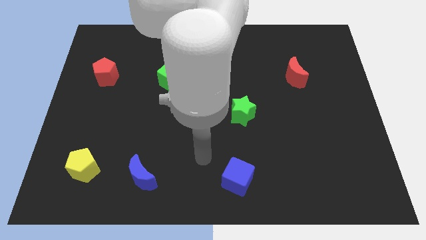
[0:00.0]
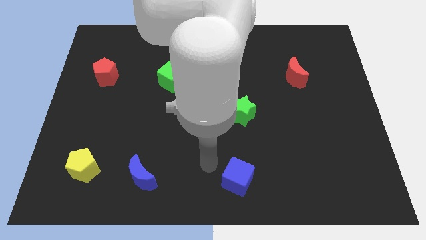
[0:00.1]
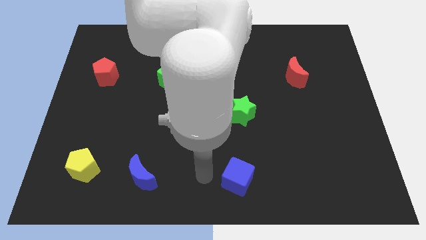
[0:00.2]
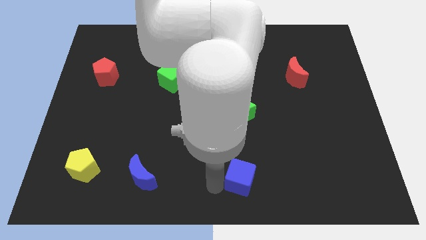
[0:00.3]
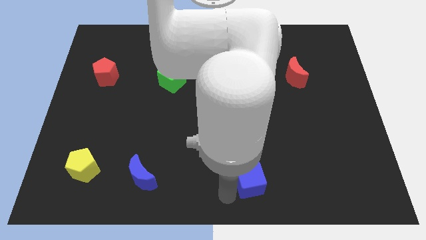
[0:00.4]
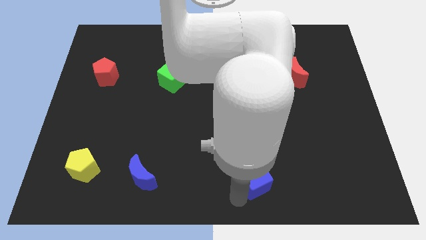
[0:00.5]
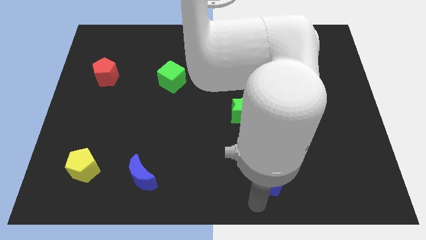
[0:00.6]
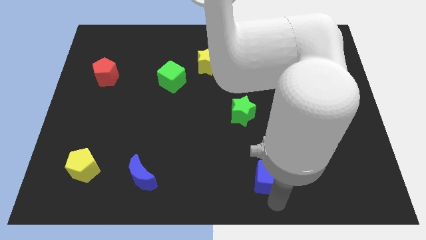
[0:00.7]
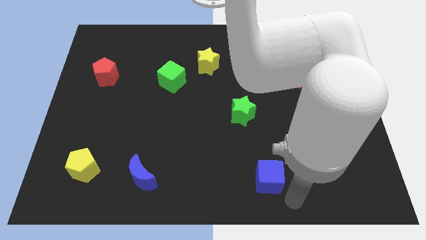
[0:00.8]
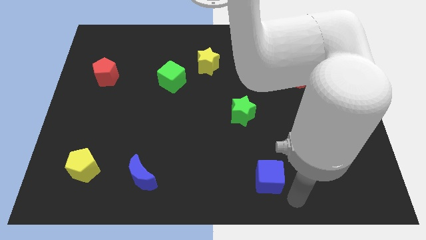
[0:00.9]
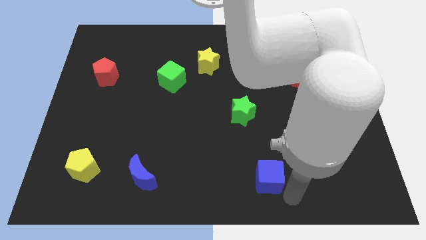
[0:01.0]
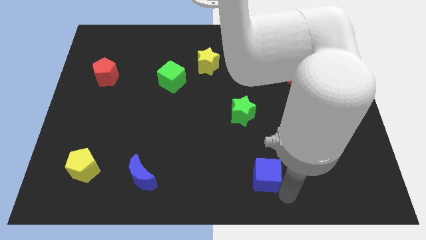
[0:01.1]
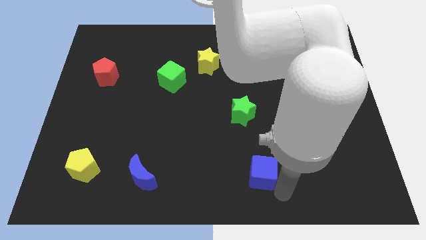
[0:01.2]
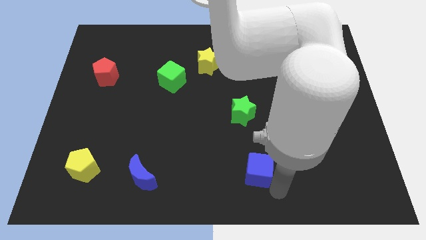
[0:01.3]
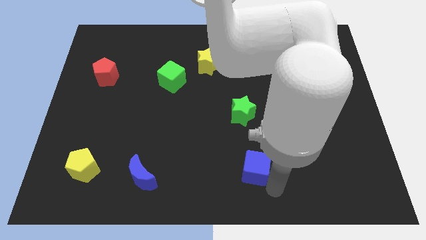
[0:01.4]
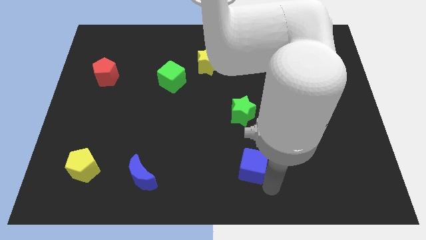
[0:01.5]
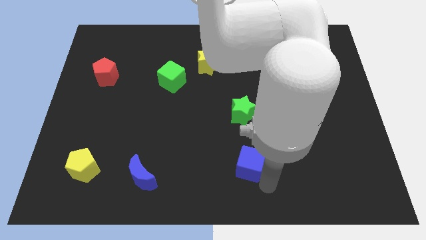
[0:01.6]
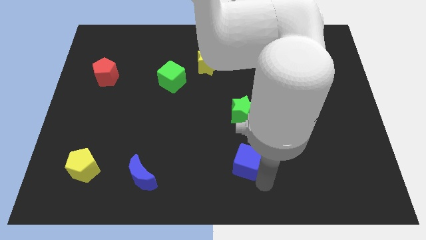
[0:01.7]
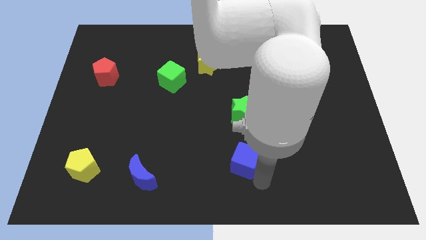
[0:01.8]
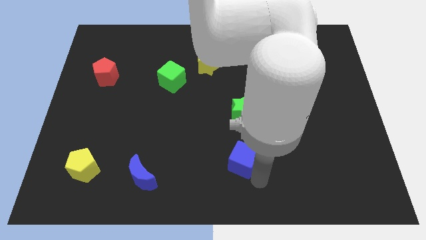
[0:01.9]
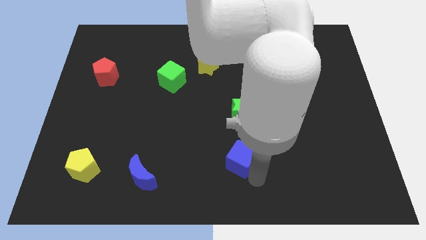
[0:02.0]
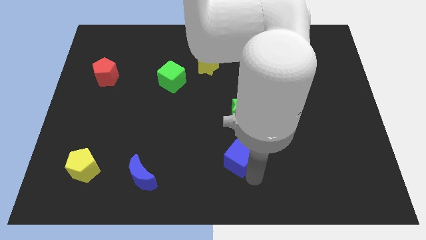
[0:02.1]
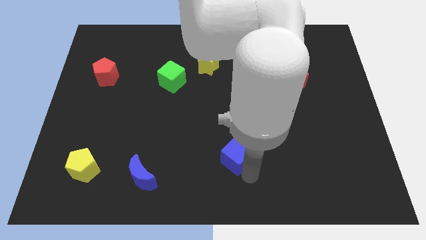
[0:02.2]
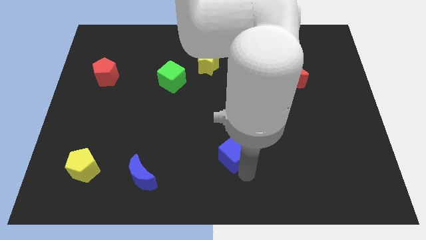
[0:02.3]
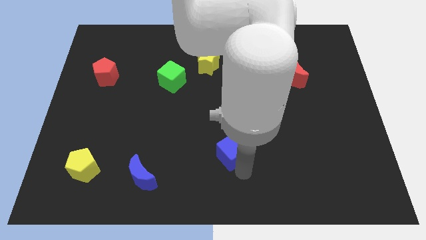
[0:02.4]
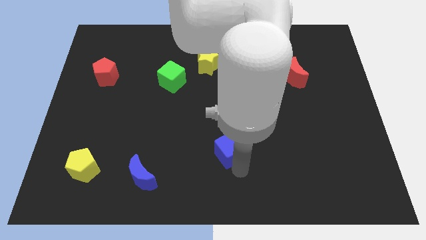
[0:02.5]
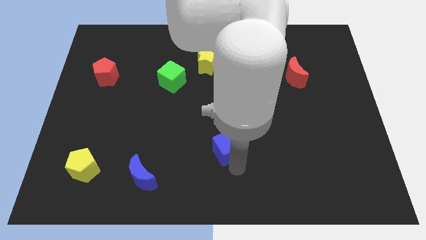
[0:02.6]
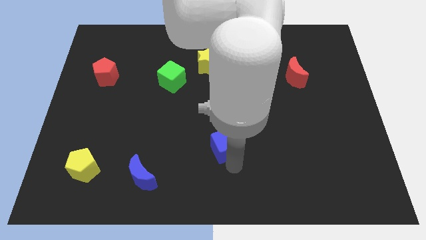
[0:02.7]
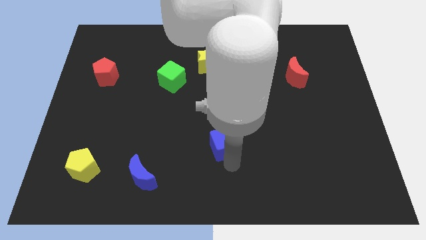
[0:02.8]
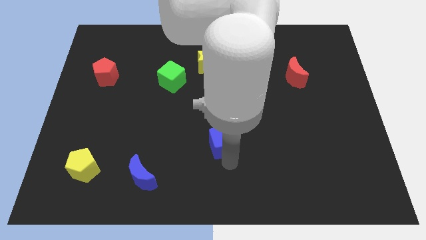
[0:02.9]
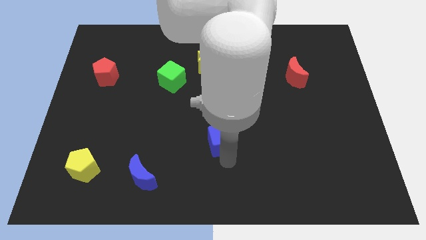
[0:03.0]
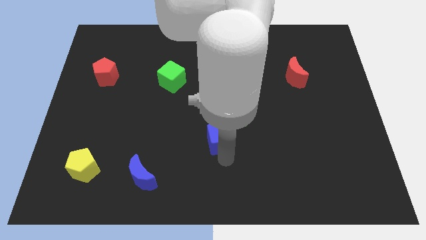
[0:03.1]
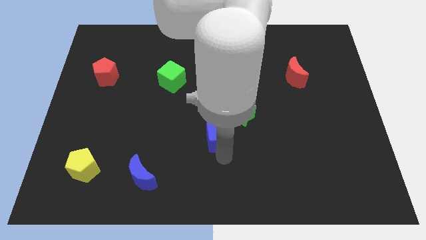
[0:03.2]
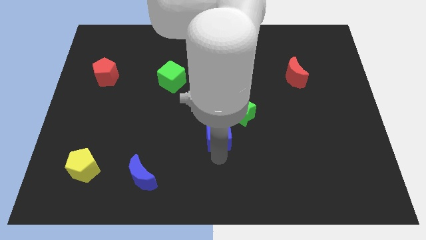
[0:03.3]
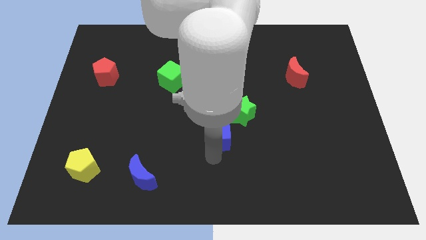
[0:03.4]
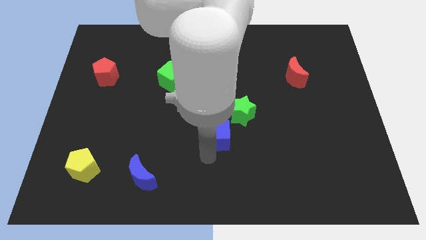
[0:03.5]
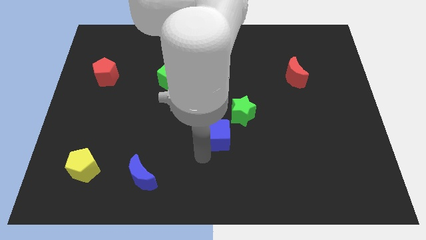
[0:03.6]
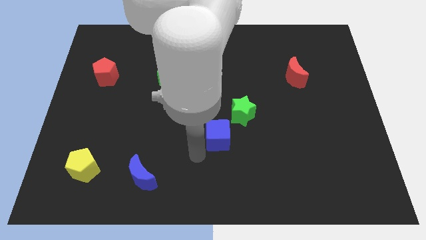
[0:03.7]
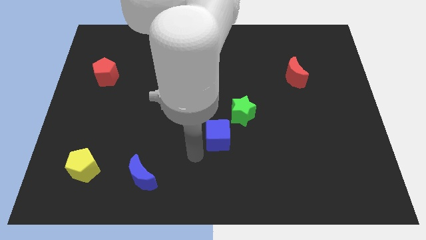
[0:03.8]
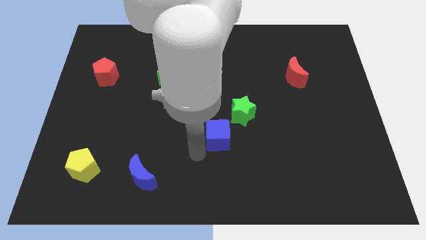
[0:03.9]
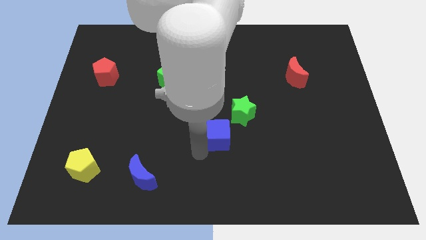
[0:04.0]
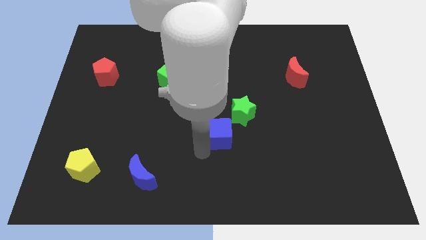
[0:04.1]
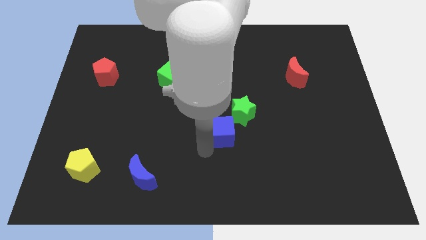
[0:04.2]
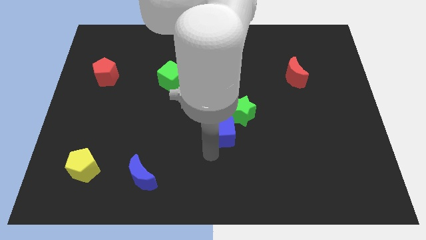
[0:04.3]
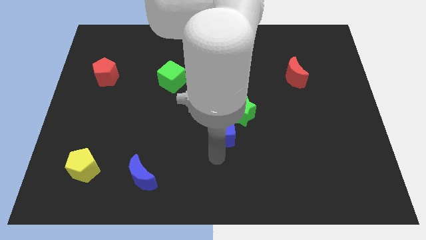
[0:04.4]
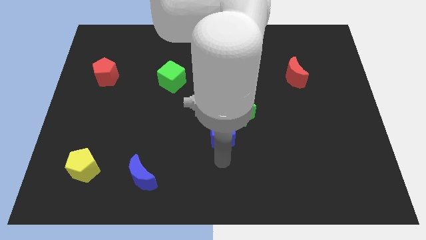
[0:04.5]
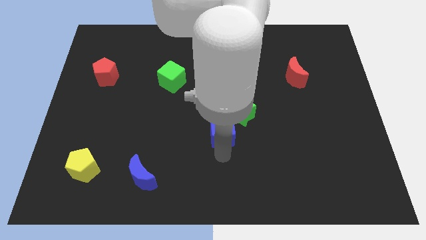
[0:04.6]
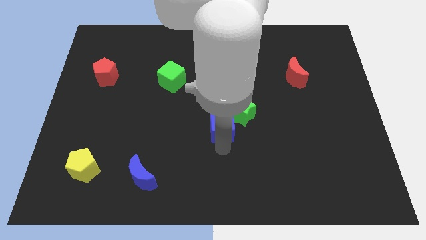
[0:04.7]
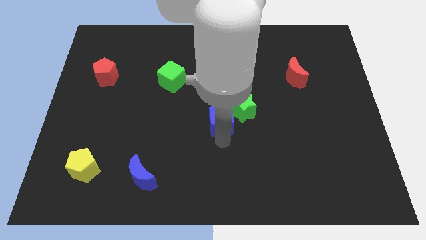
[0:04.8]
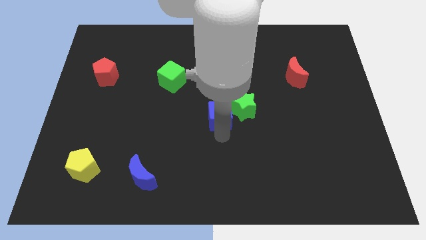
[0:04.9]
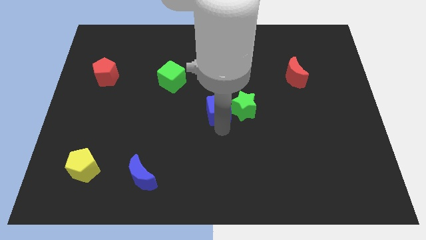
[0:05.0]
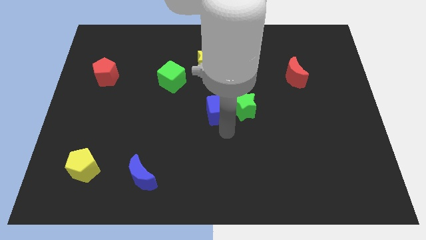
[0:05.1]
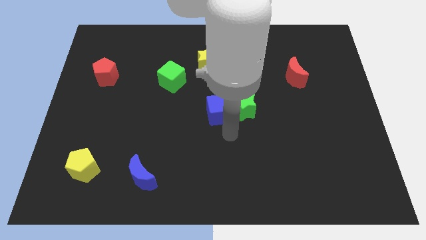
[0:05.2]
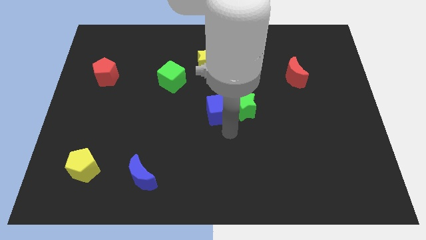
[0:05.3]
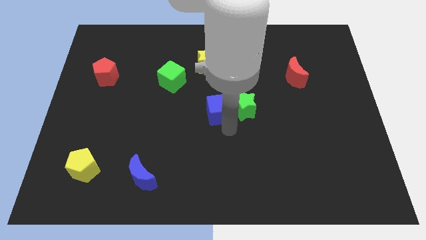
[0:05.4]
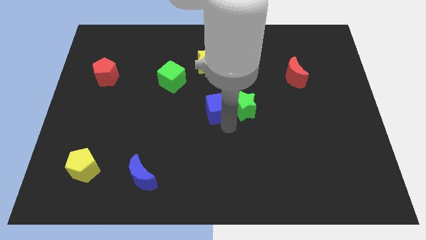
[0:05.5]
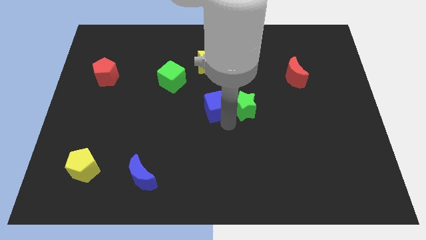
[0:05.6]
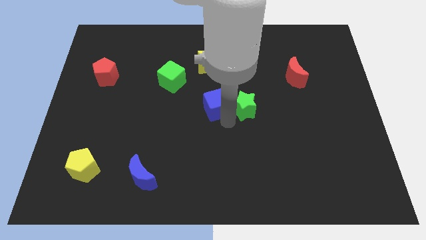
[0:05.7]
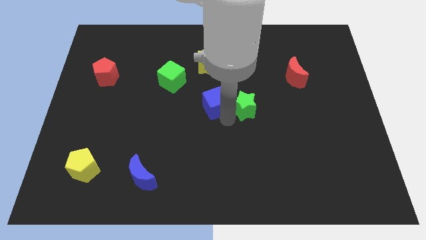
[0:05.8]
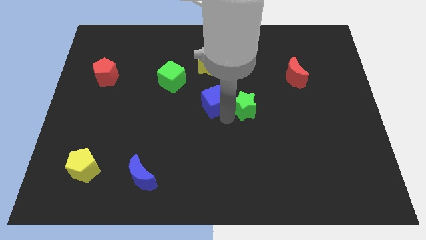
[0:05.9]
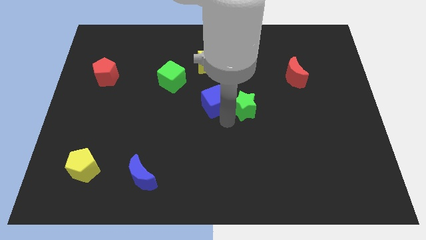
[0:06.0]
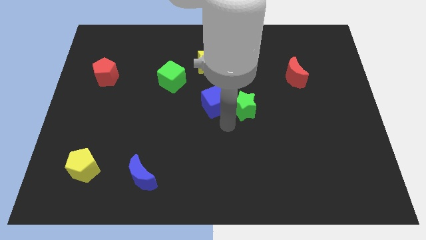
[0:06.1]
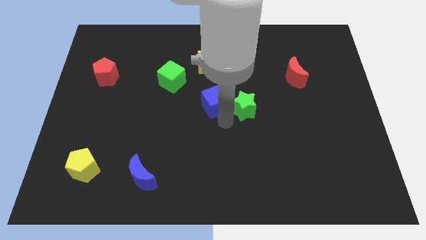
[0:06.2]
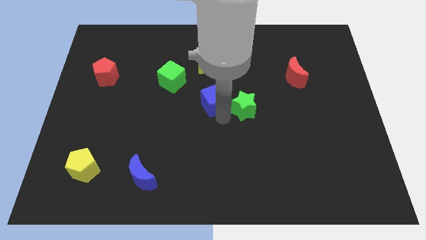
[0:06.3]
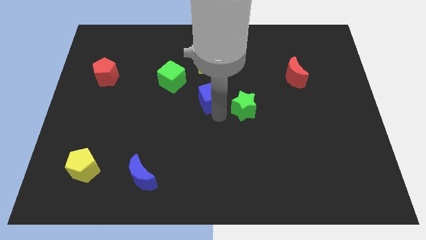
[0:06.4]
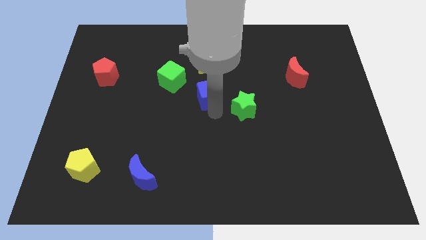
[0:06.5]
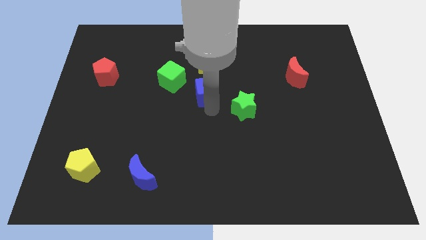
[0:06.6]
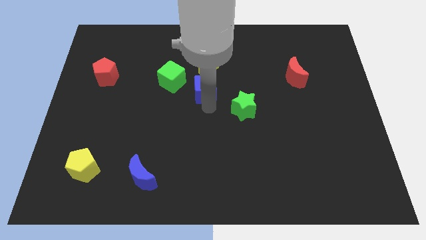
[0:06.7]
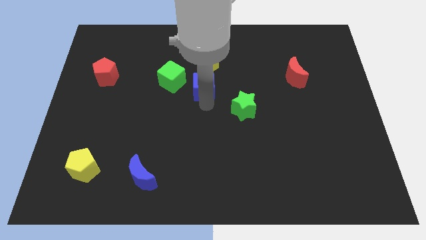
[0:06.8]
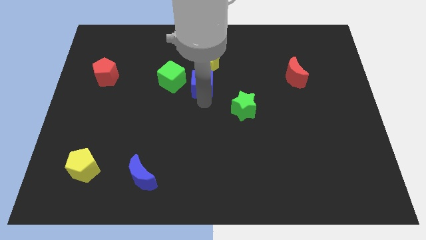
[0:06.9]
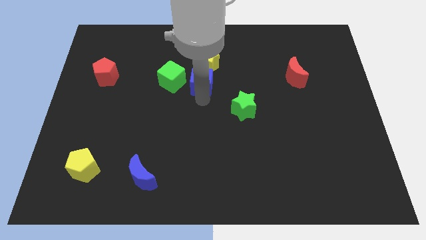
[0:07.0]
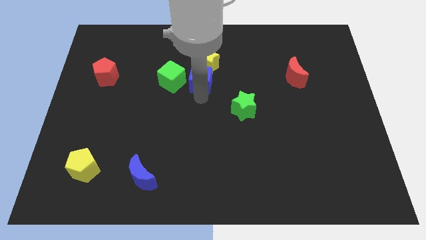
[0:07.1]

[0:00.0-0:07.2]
slide the blue cube next to the yellow star
